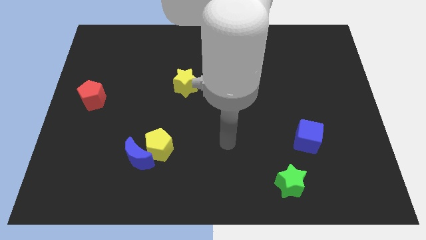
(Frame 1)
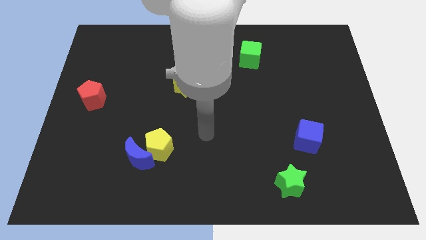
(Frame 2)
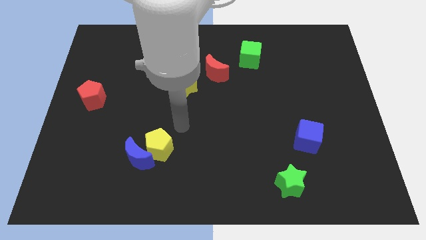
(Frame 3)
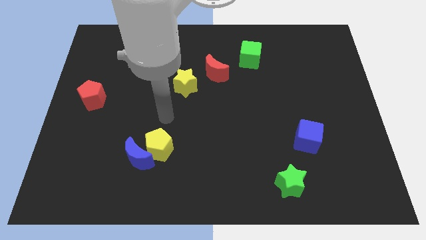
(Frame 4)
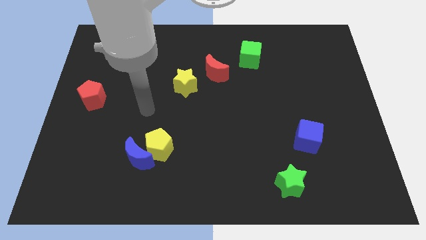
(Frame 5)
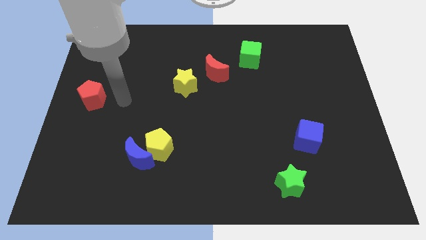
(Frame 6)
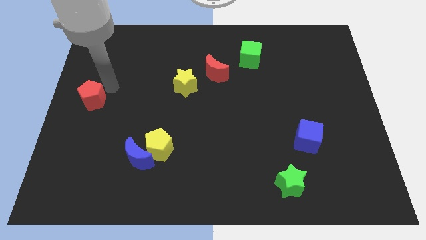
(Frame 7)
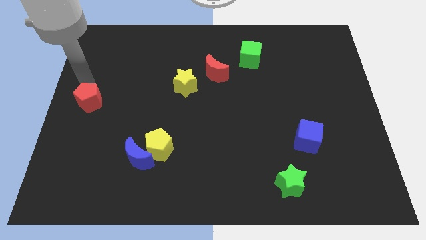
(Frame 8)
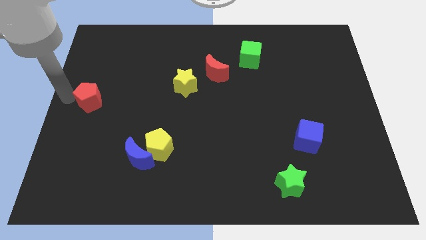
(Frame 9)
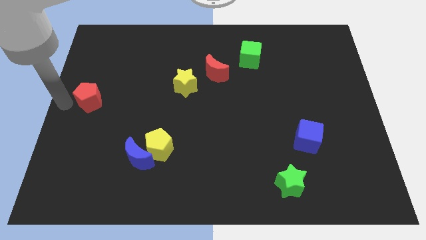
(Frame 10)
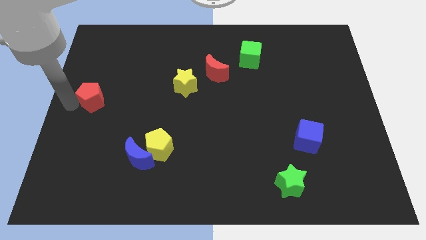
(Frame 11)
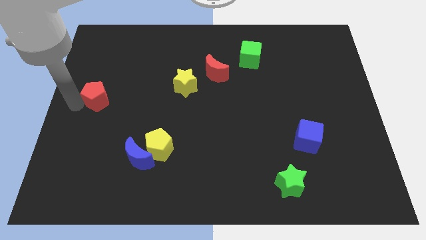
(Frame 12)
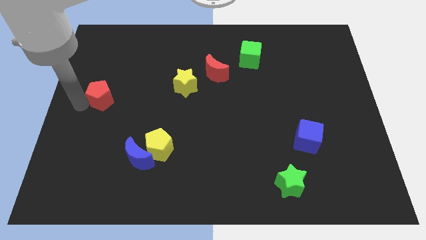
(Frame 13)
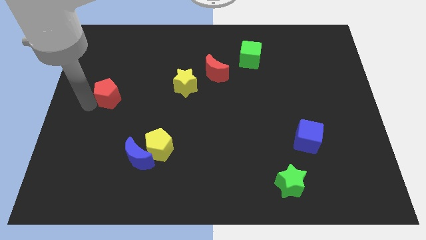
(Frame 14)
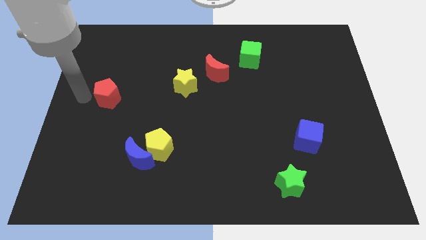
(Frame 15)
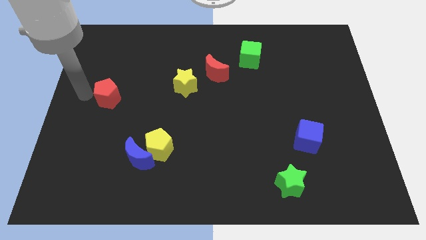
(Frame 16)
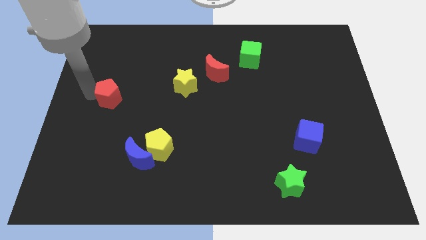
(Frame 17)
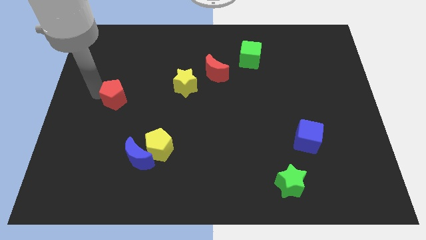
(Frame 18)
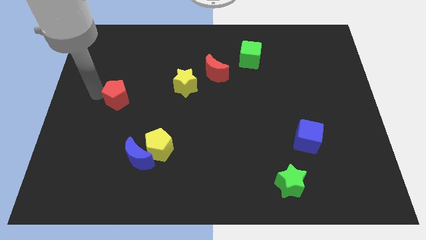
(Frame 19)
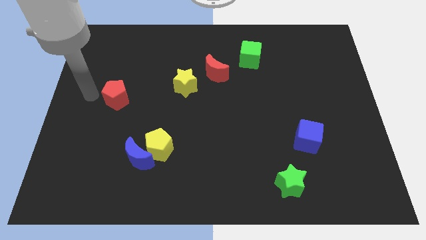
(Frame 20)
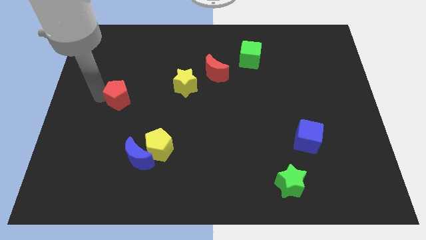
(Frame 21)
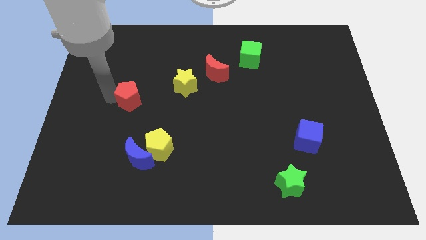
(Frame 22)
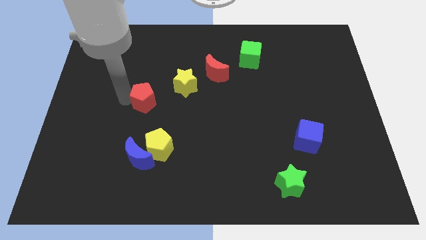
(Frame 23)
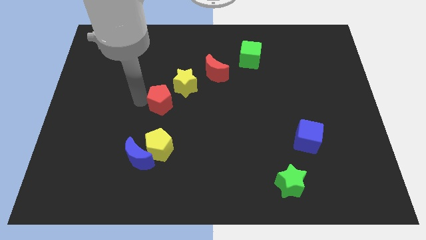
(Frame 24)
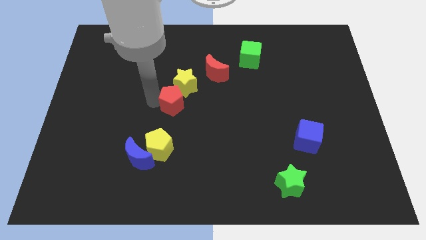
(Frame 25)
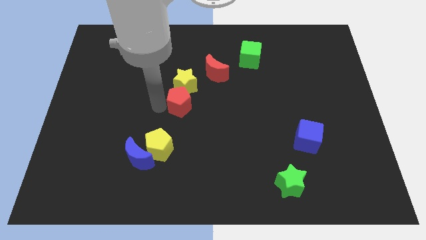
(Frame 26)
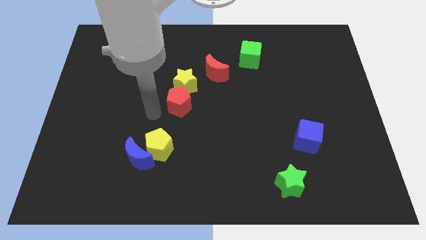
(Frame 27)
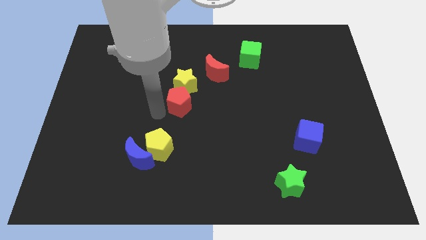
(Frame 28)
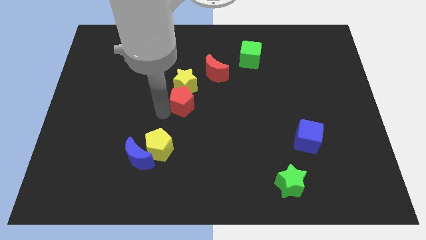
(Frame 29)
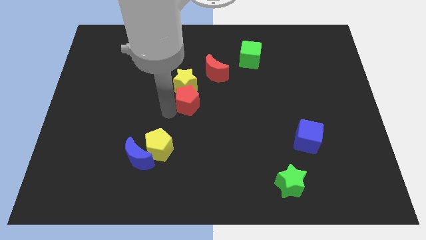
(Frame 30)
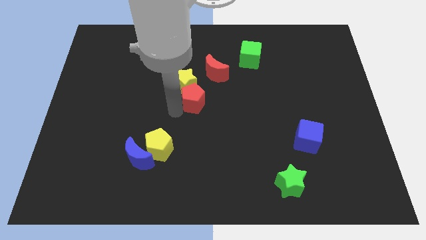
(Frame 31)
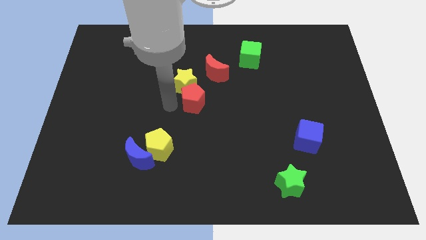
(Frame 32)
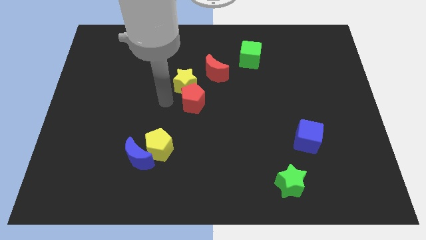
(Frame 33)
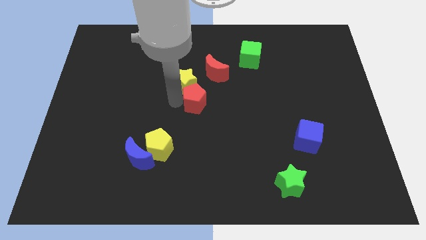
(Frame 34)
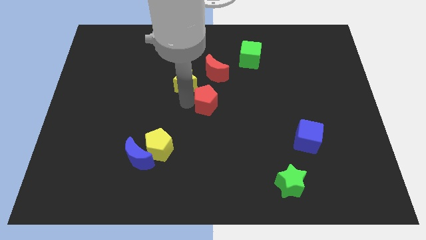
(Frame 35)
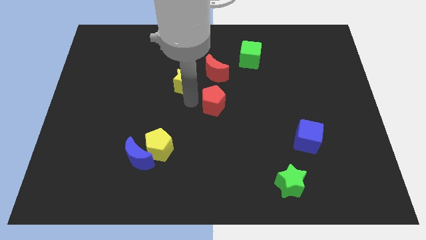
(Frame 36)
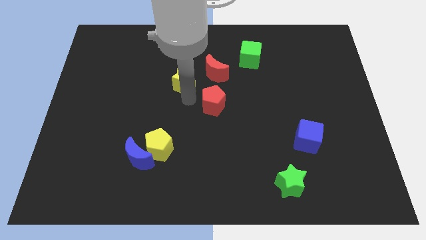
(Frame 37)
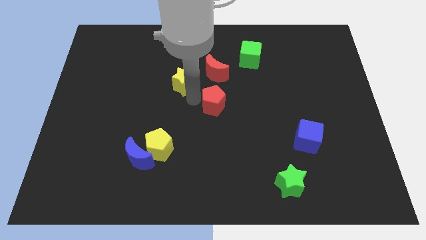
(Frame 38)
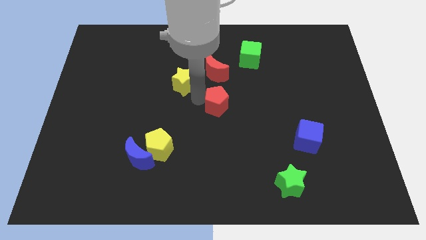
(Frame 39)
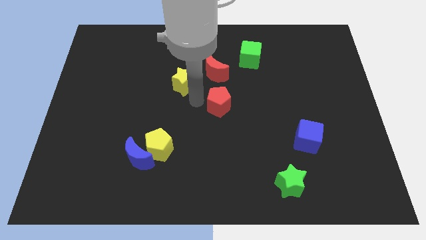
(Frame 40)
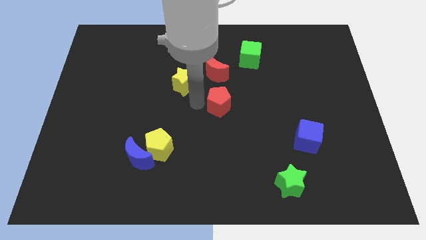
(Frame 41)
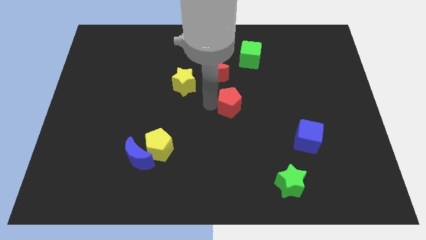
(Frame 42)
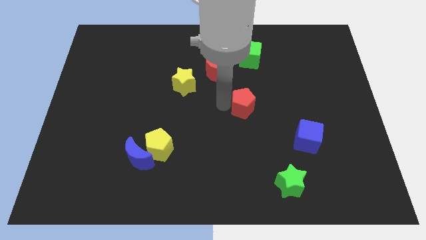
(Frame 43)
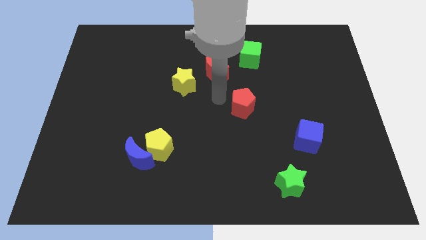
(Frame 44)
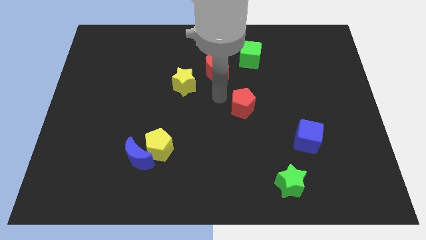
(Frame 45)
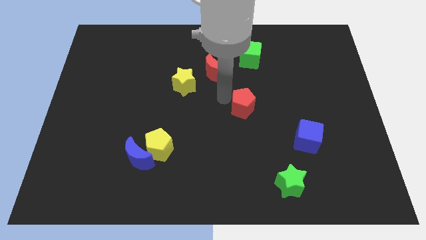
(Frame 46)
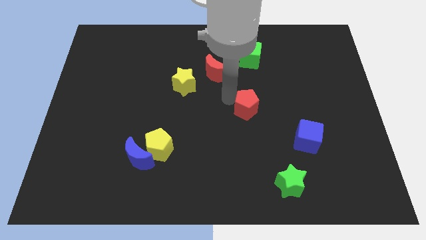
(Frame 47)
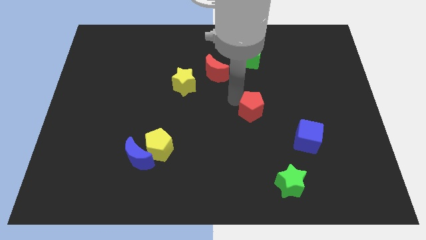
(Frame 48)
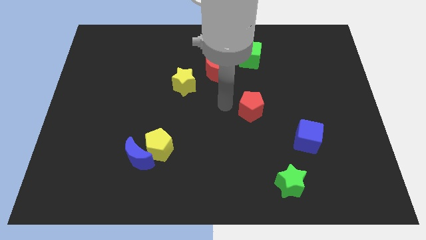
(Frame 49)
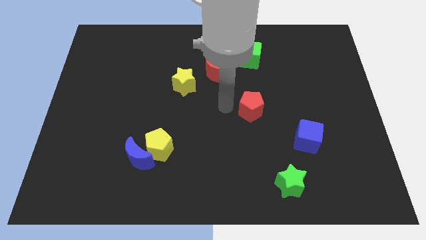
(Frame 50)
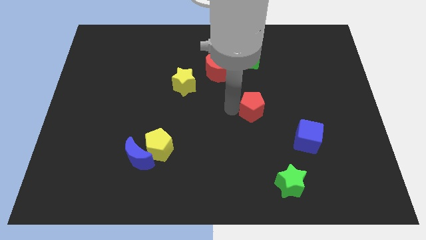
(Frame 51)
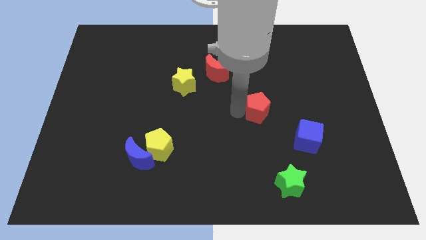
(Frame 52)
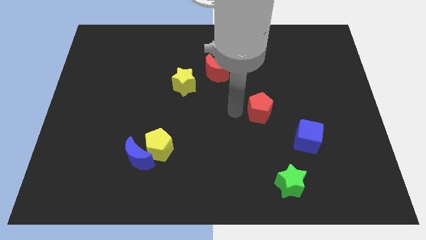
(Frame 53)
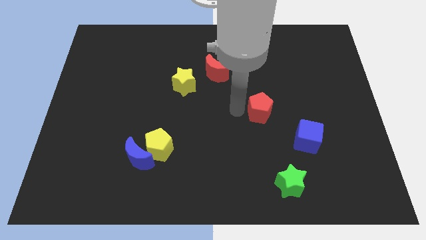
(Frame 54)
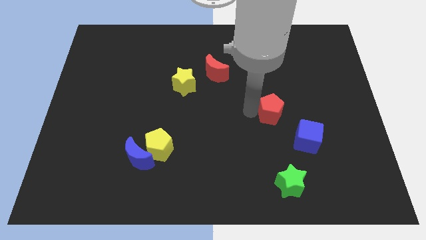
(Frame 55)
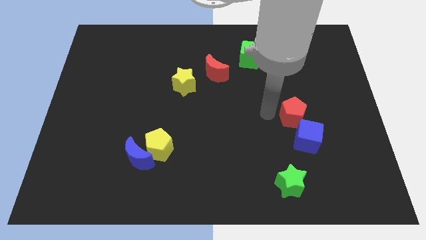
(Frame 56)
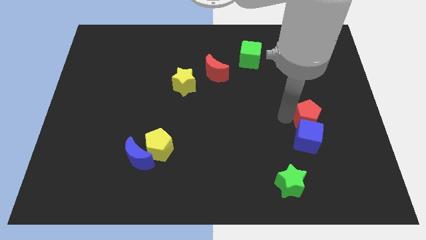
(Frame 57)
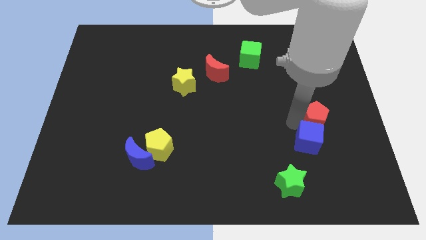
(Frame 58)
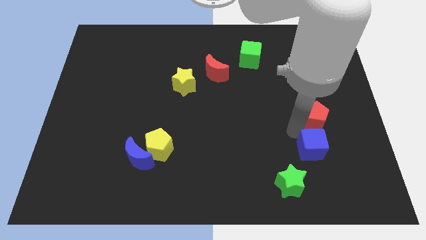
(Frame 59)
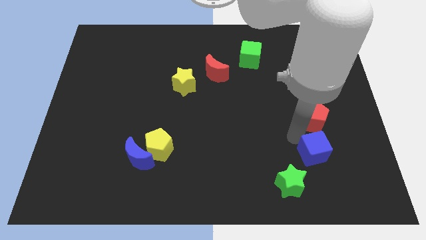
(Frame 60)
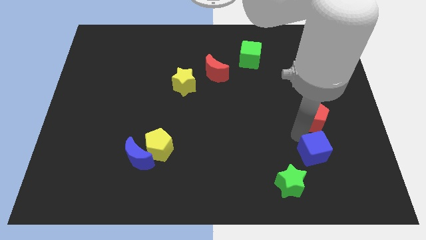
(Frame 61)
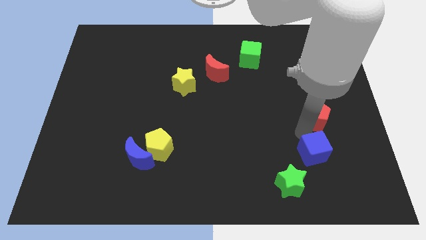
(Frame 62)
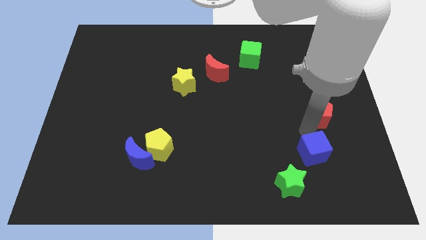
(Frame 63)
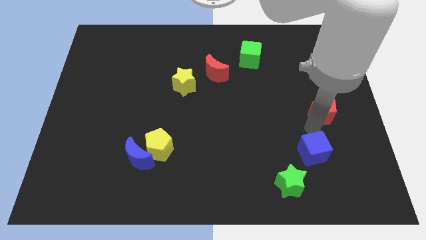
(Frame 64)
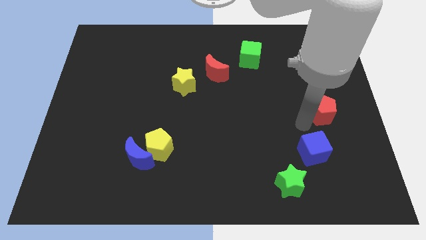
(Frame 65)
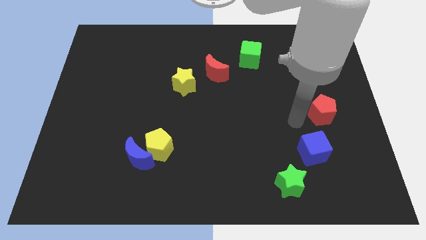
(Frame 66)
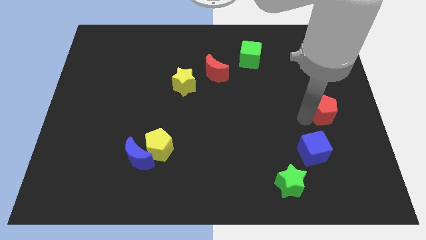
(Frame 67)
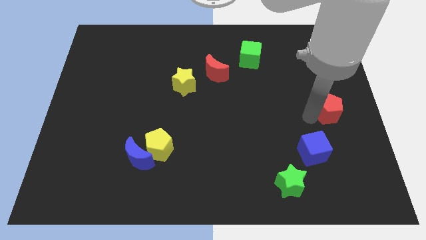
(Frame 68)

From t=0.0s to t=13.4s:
put the red pentagon to the center right

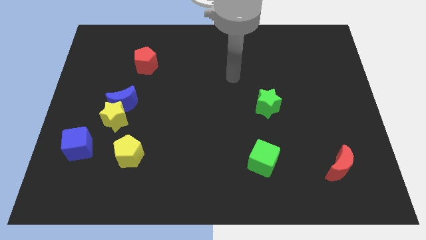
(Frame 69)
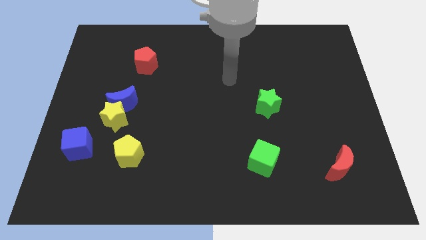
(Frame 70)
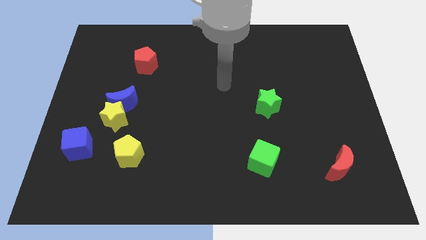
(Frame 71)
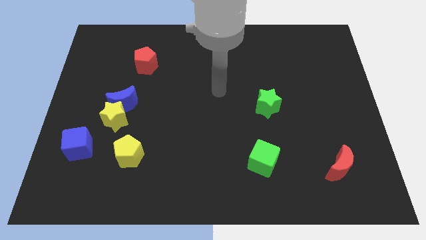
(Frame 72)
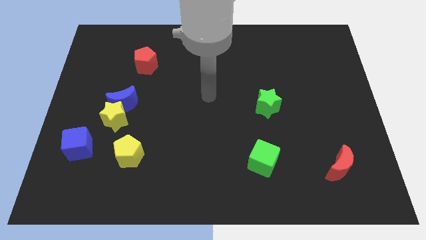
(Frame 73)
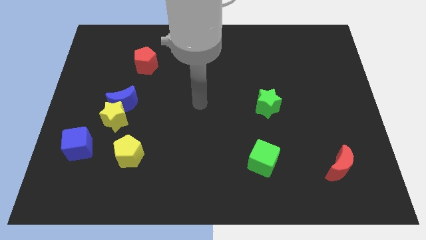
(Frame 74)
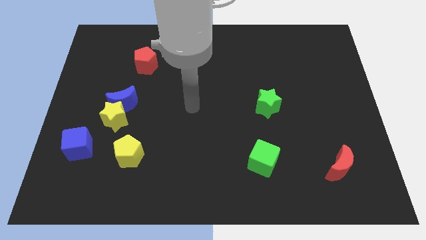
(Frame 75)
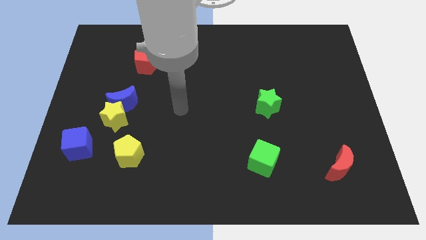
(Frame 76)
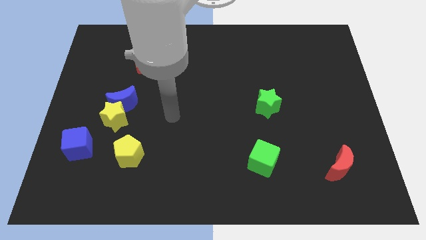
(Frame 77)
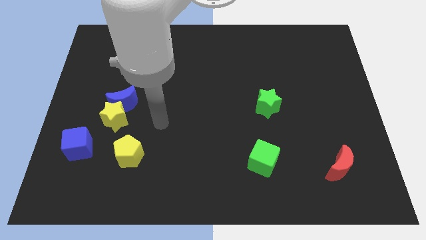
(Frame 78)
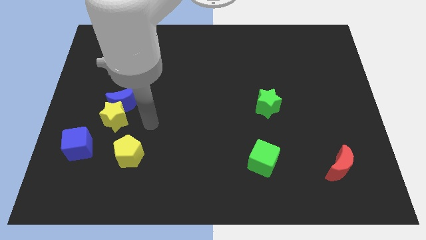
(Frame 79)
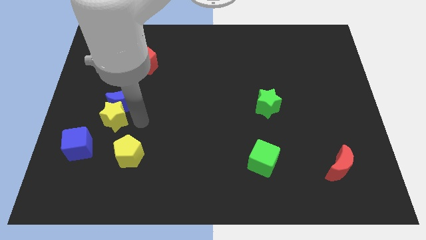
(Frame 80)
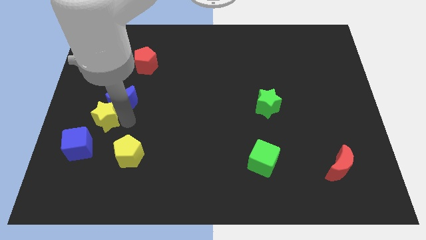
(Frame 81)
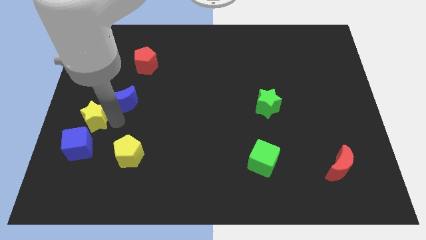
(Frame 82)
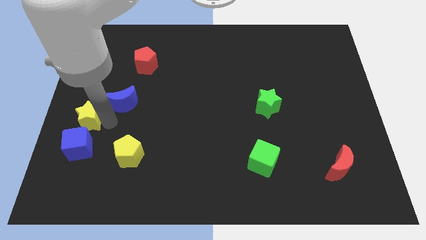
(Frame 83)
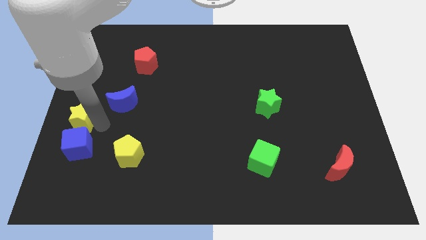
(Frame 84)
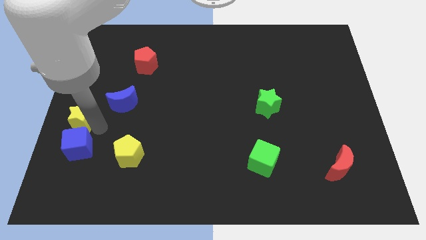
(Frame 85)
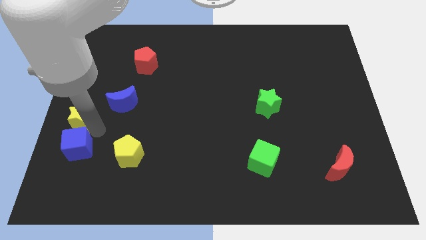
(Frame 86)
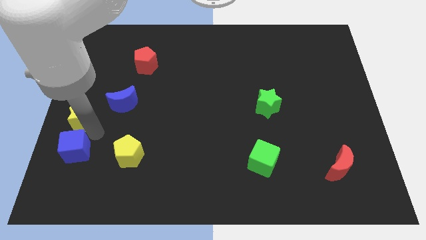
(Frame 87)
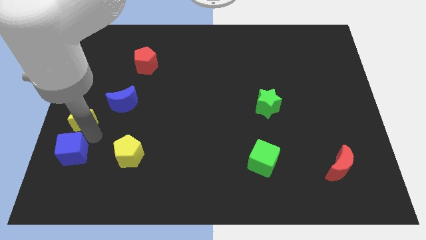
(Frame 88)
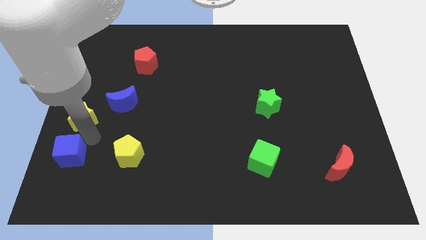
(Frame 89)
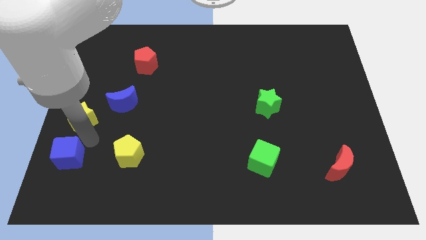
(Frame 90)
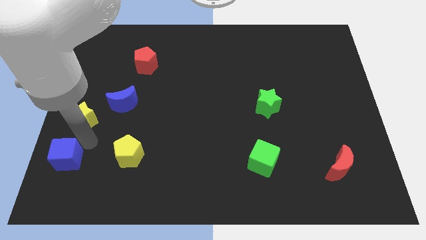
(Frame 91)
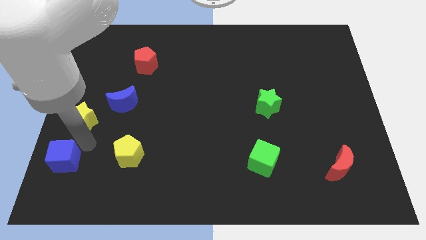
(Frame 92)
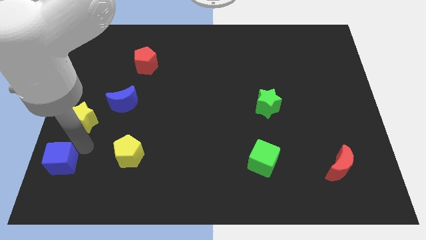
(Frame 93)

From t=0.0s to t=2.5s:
put the blue cube to the bottom left of the board
